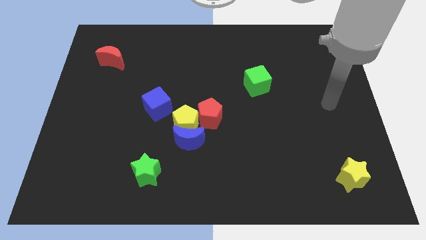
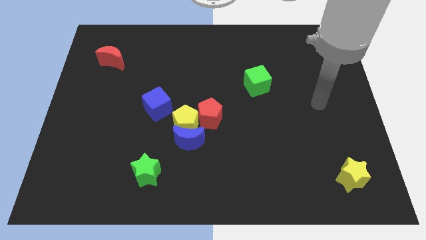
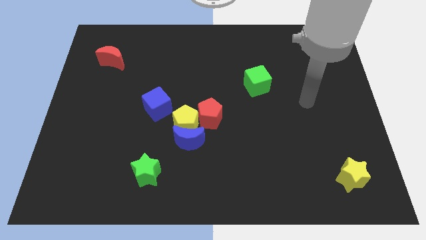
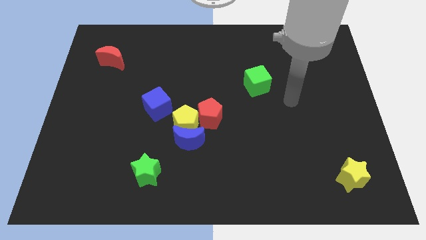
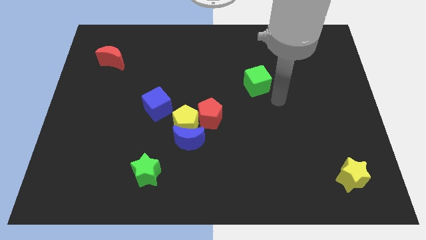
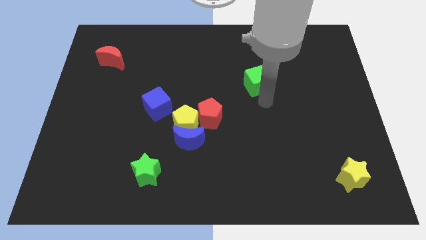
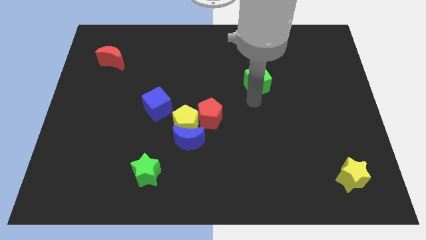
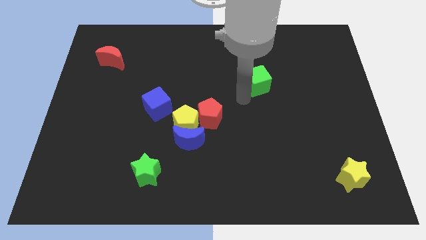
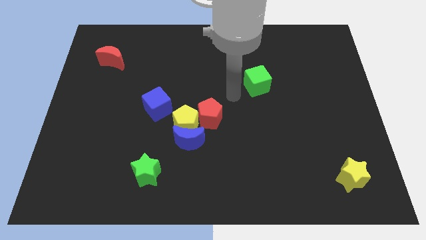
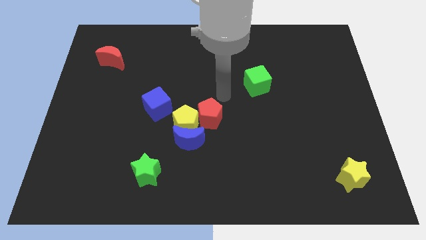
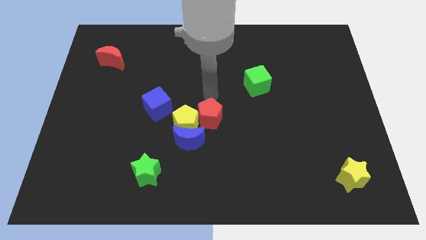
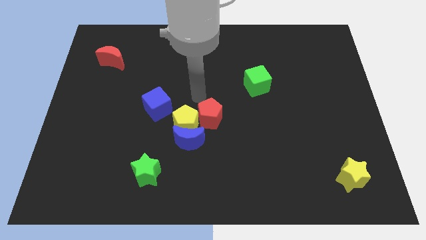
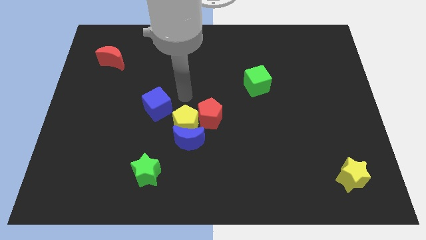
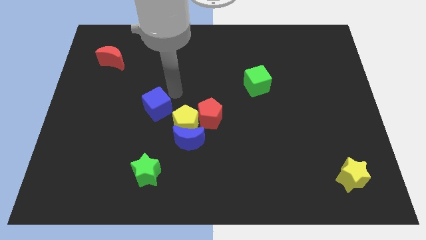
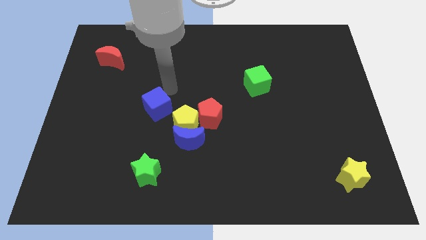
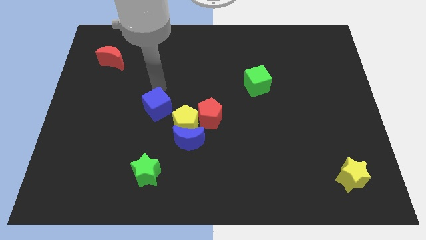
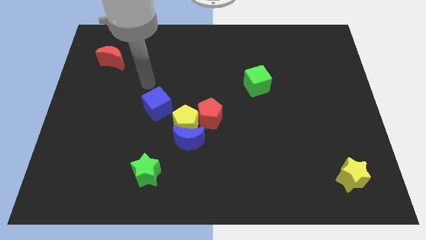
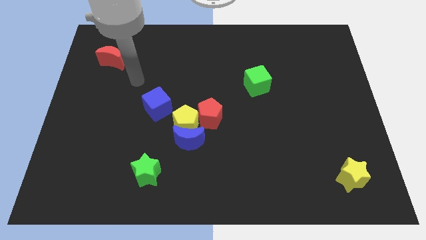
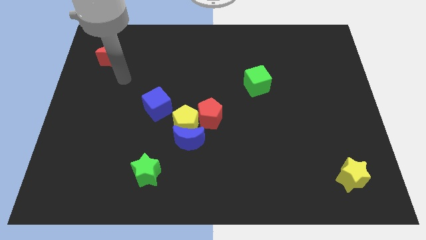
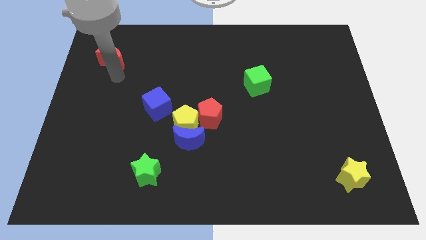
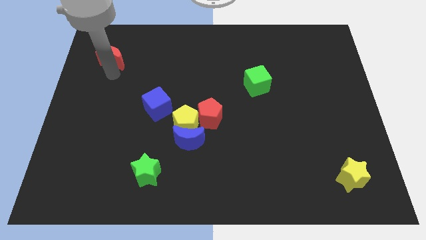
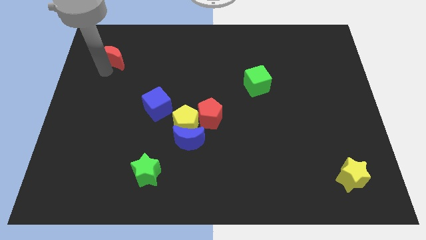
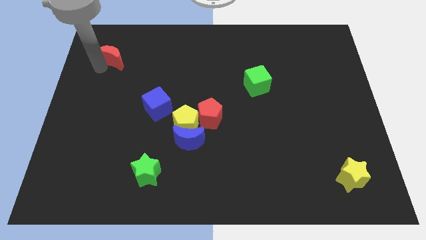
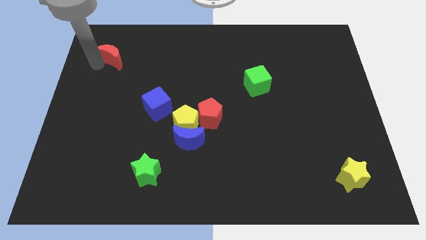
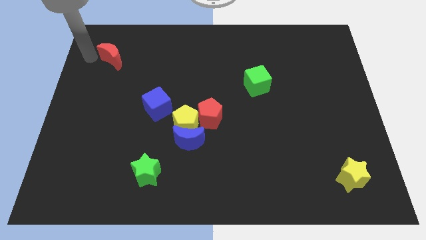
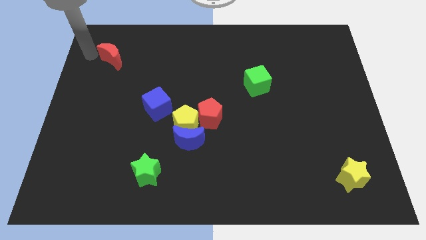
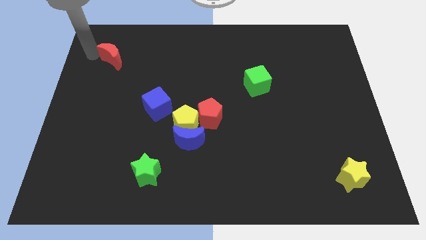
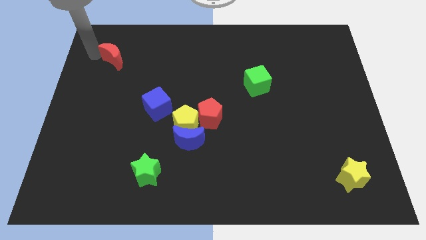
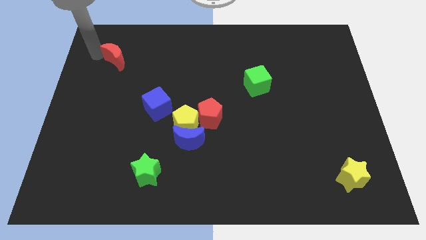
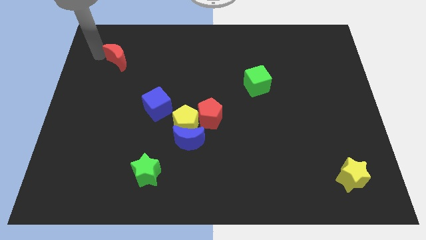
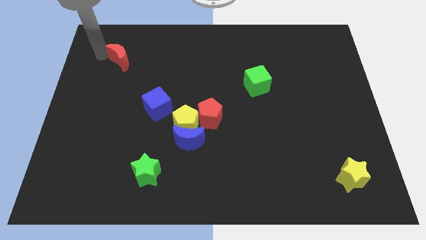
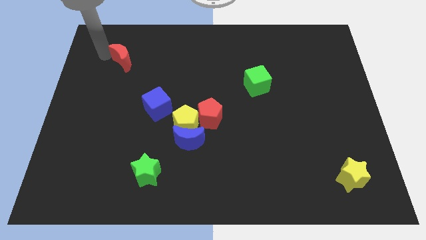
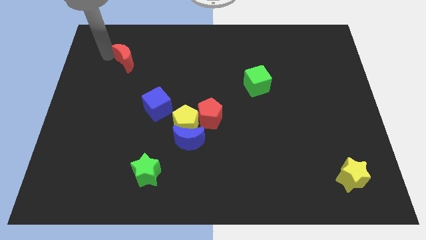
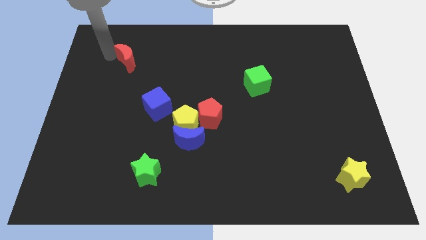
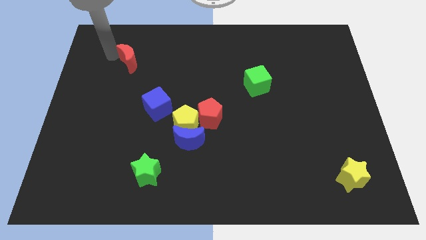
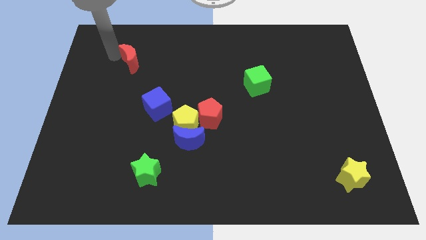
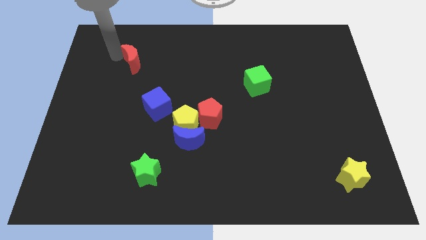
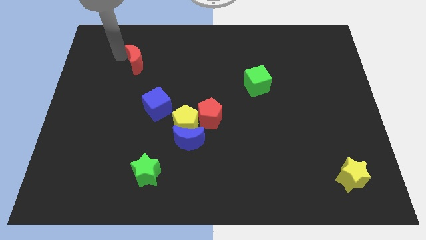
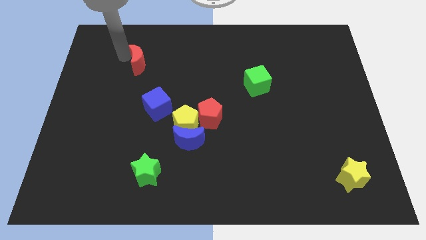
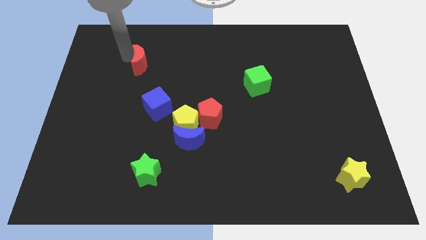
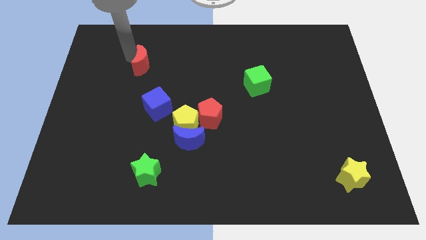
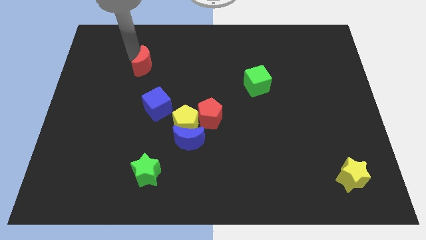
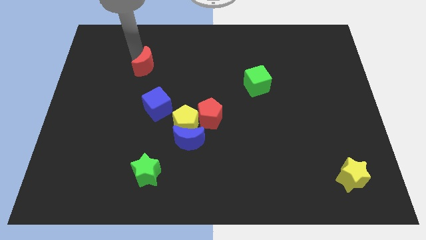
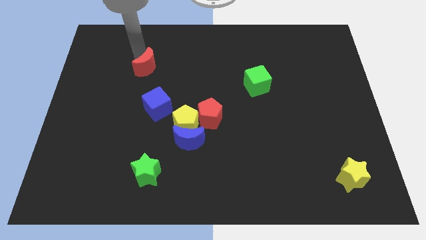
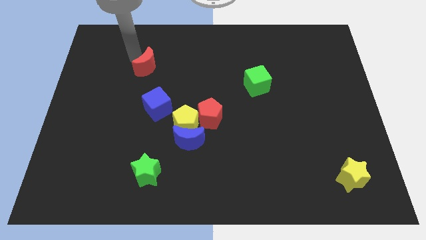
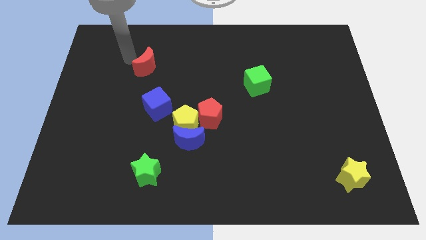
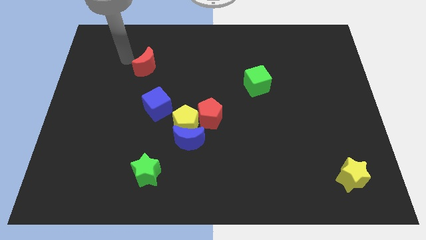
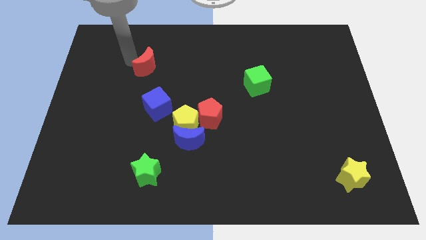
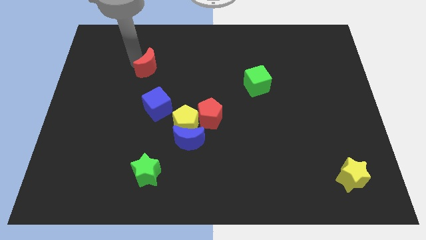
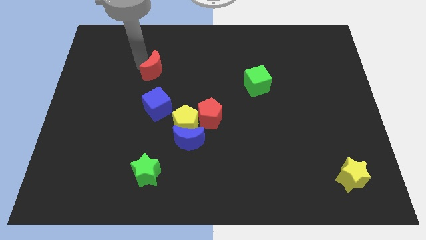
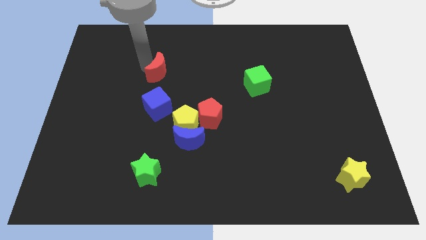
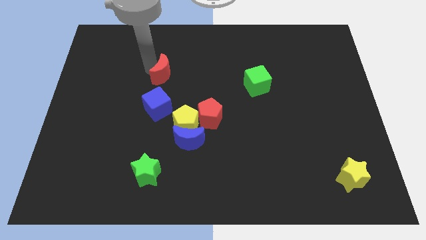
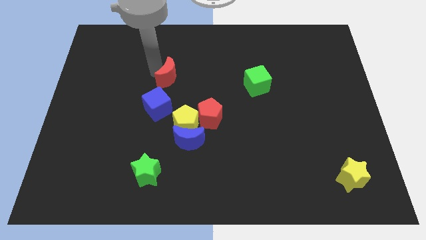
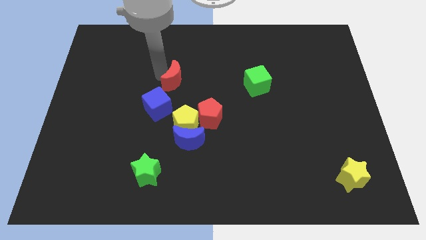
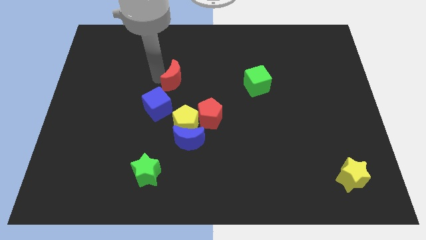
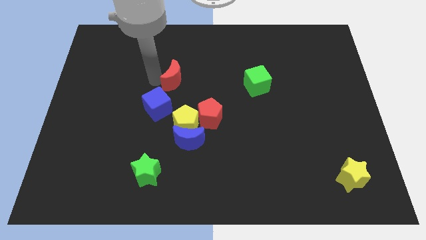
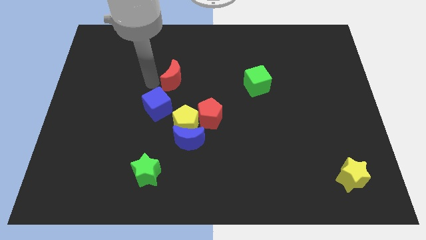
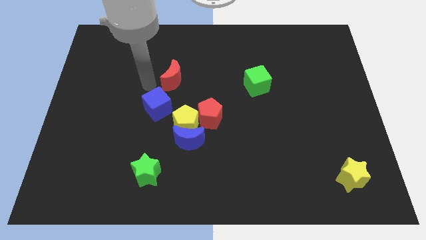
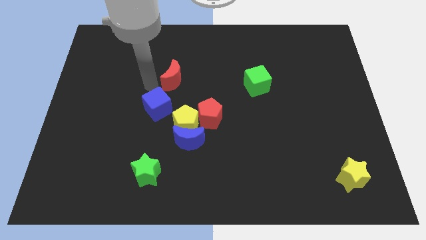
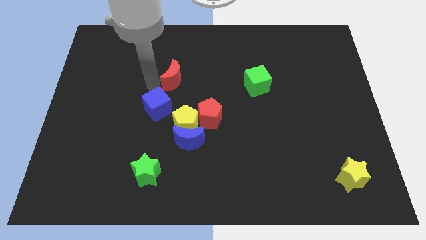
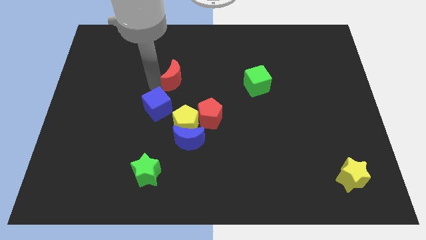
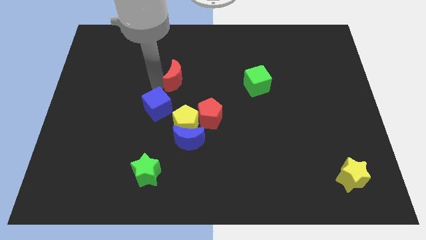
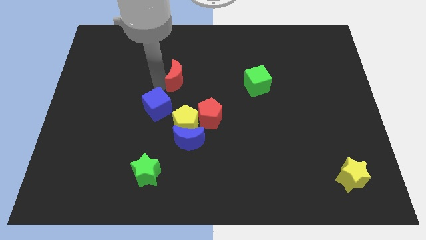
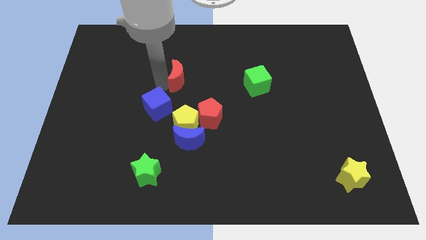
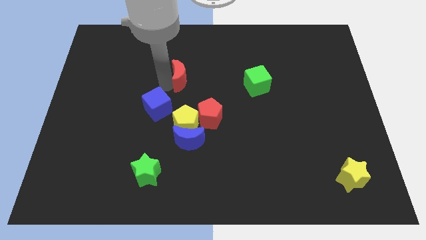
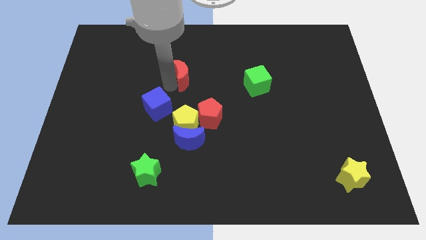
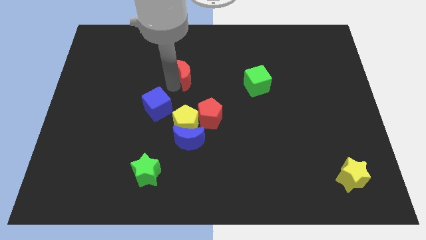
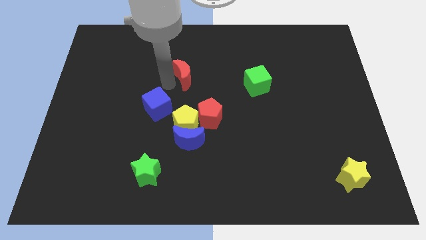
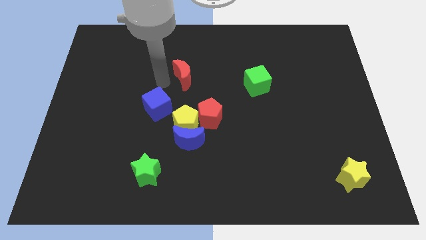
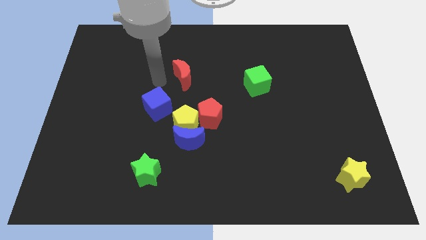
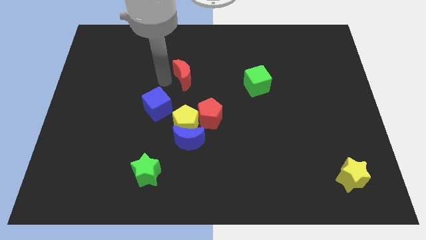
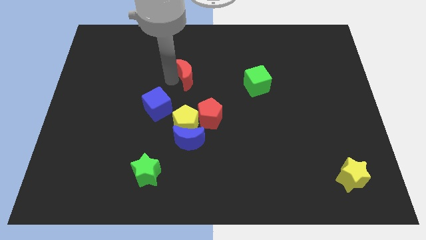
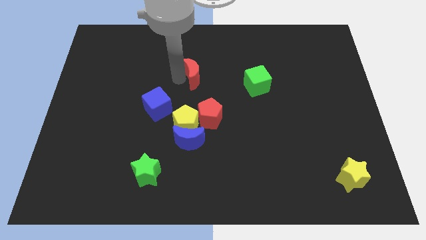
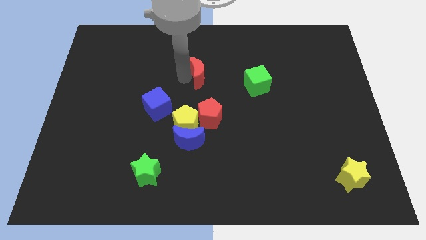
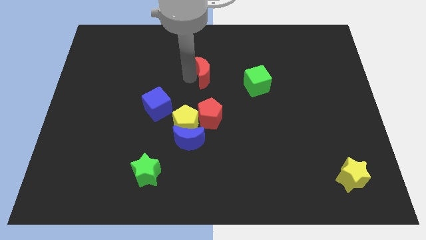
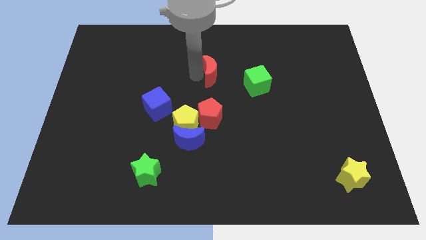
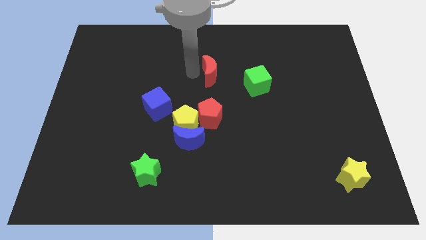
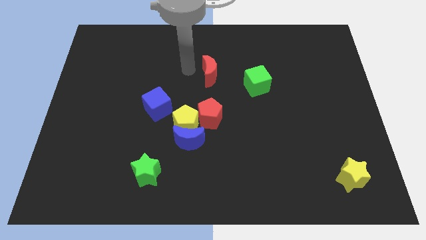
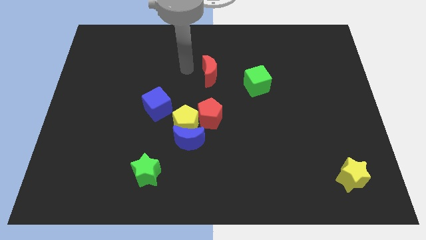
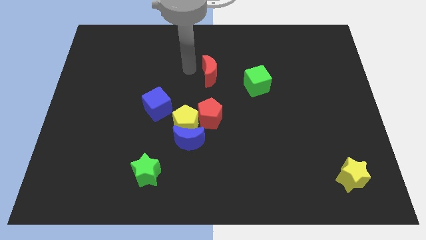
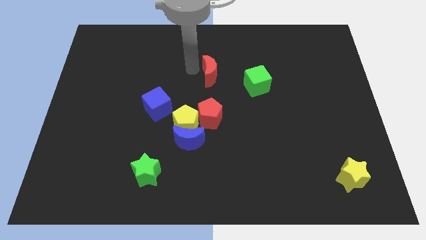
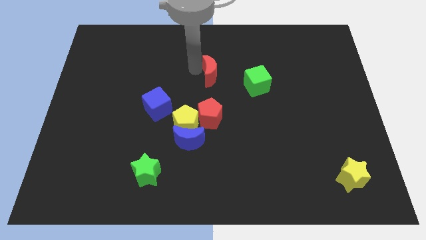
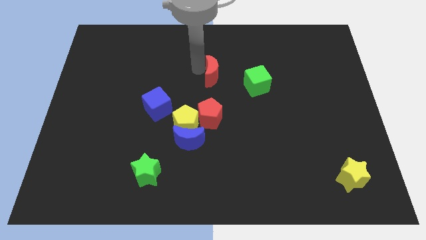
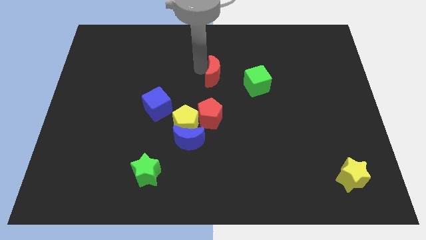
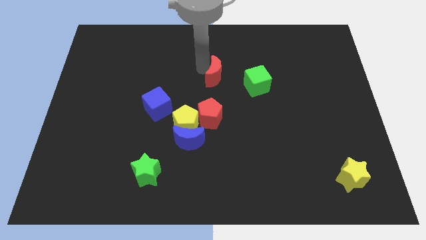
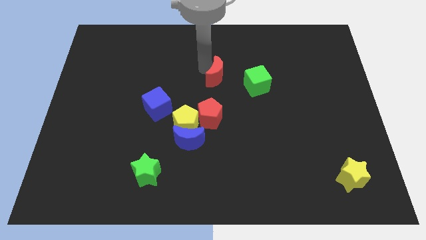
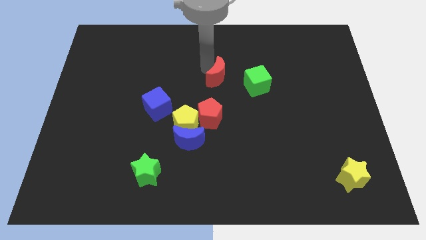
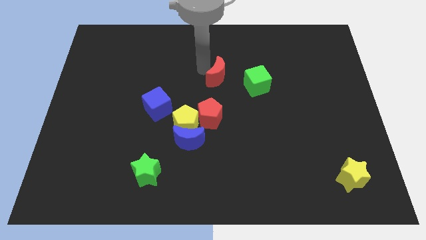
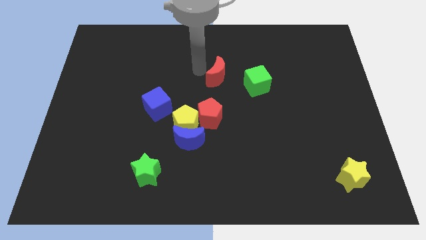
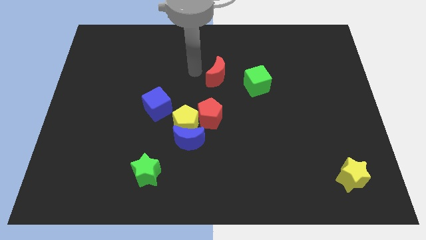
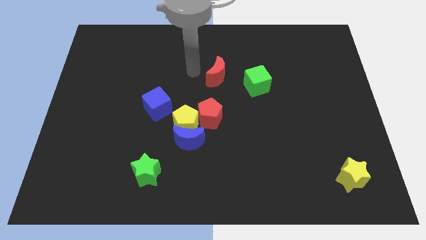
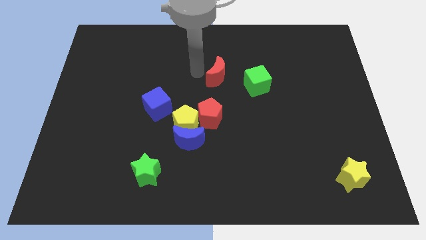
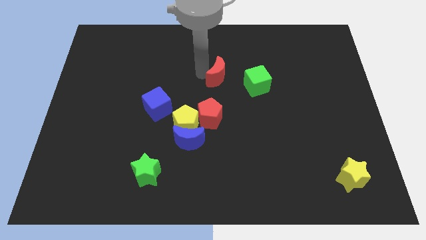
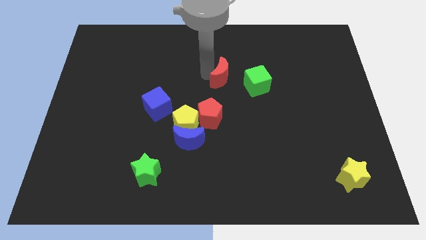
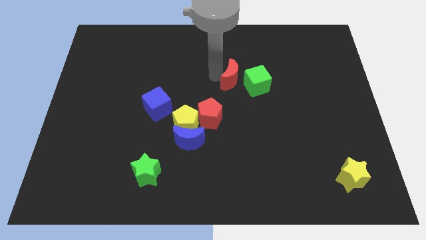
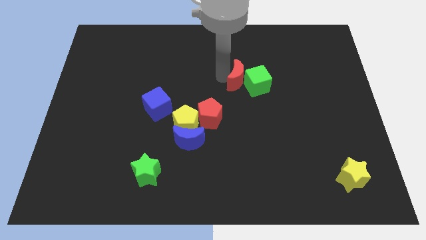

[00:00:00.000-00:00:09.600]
push the red moon towards the green cube
